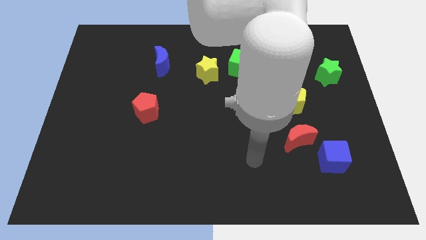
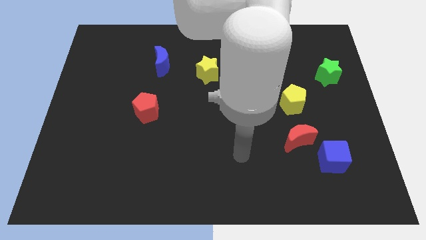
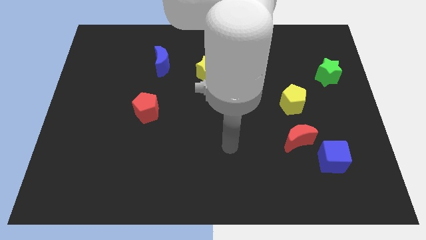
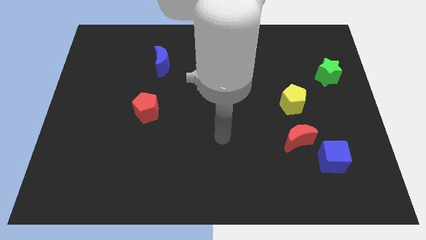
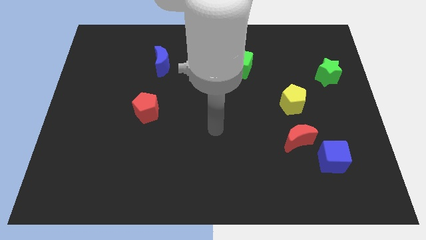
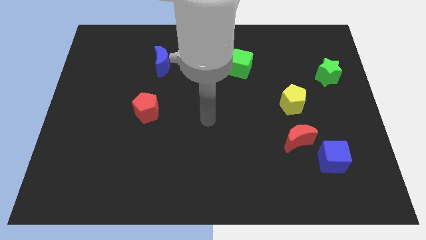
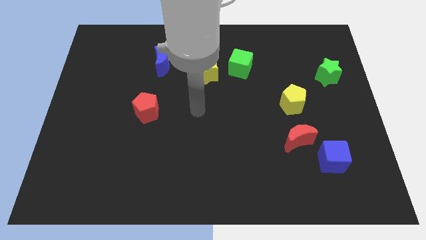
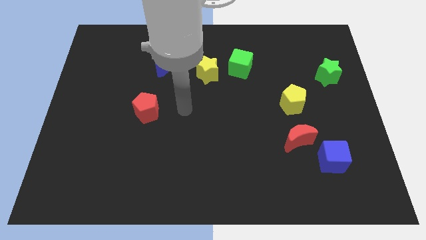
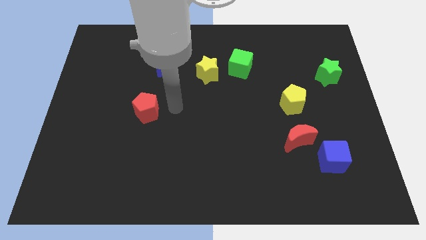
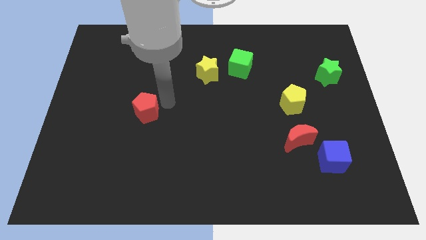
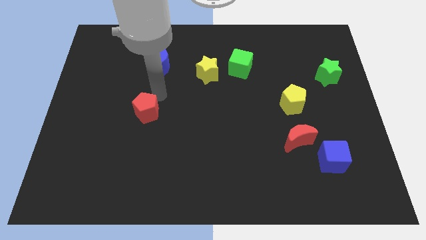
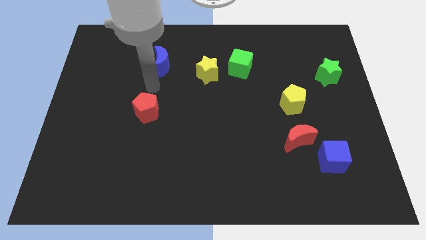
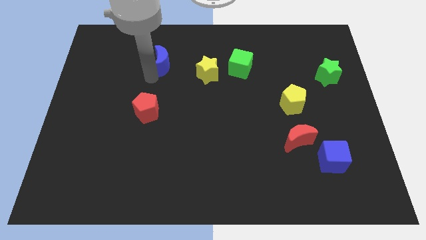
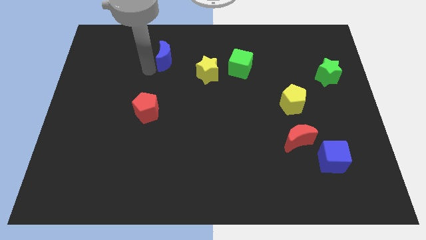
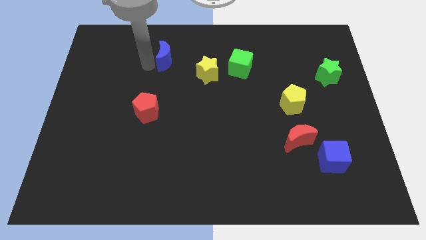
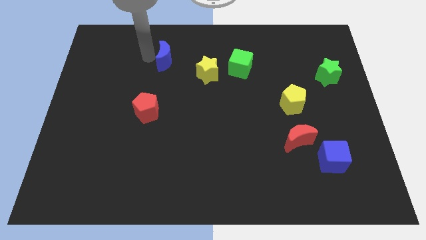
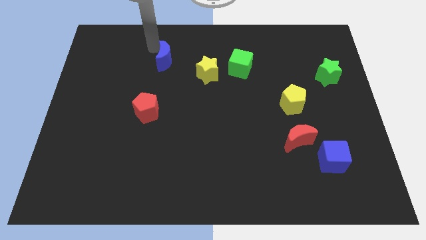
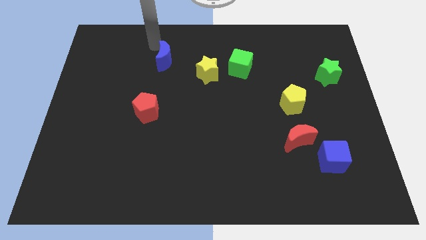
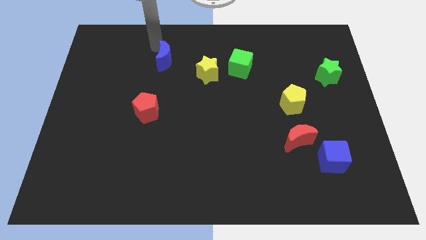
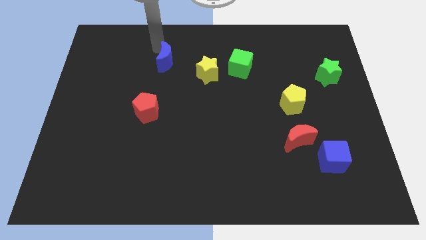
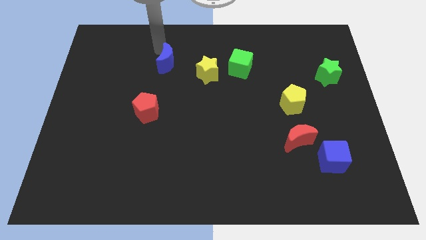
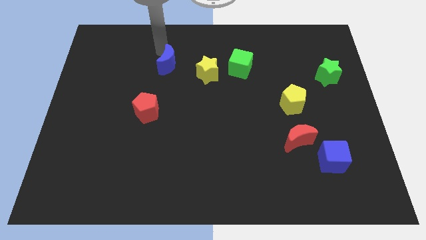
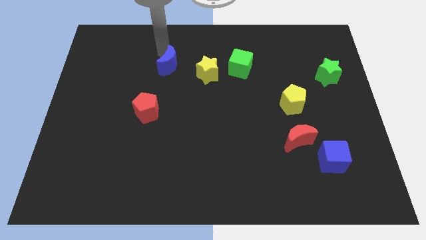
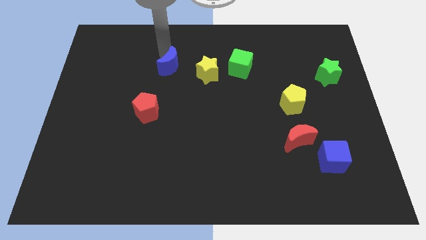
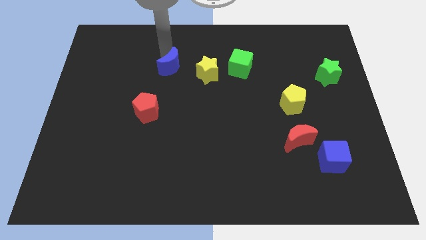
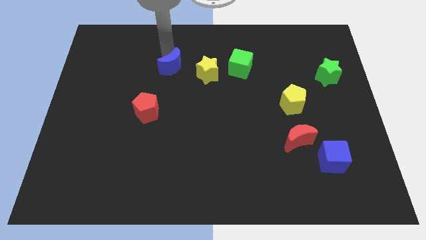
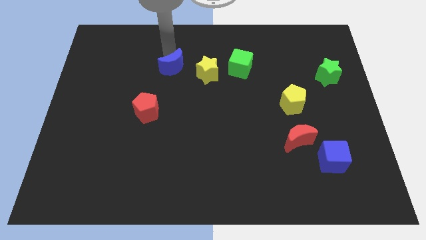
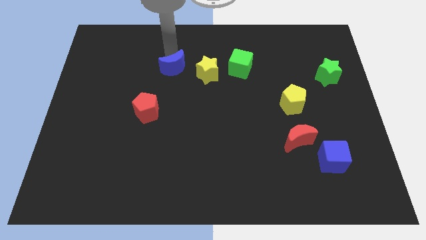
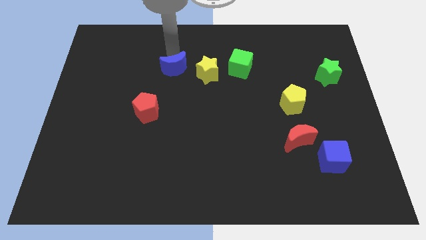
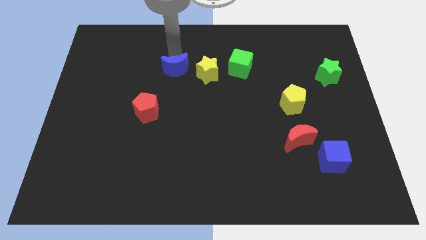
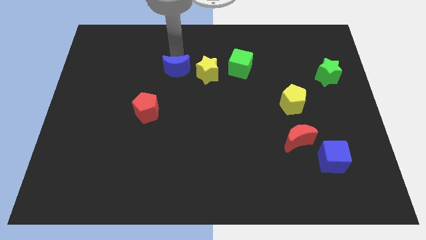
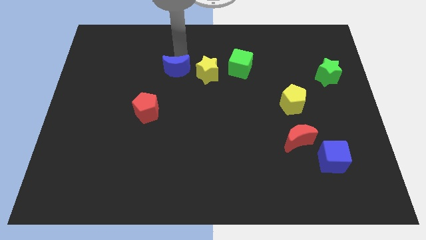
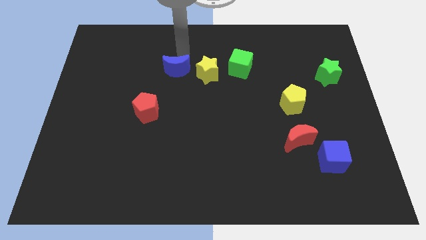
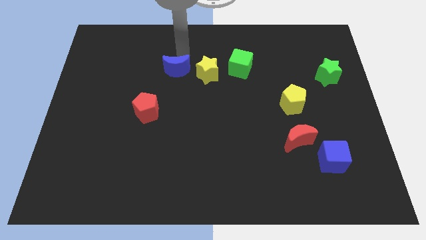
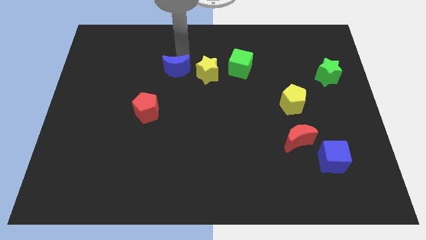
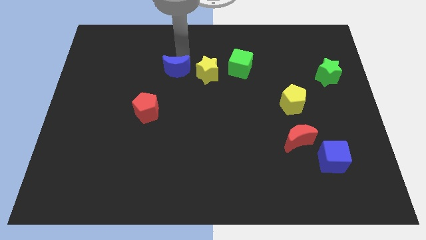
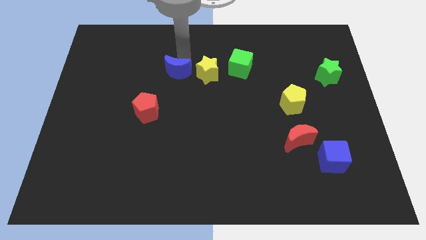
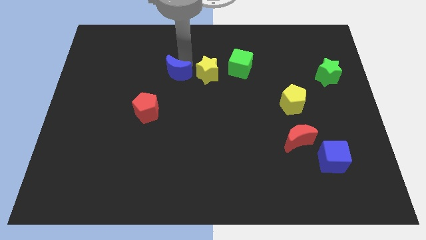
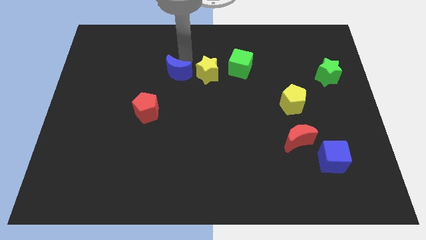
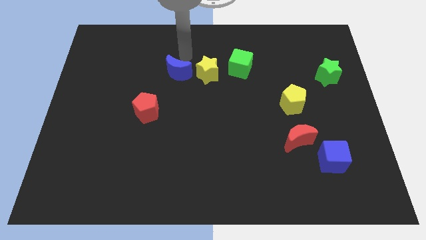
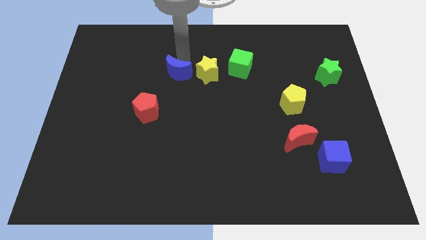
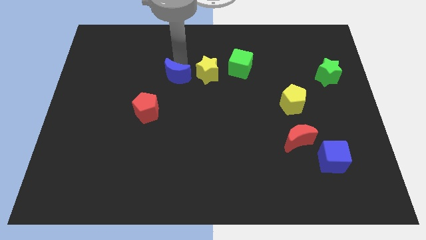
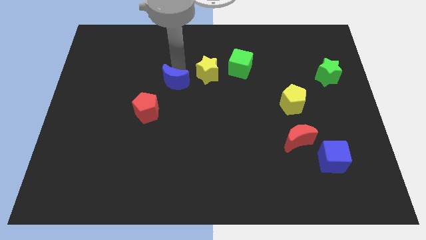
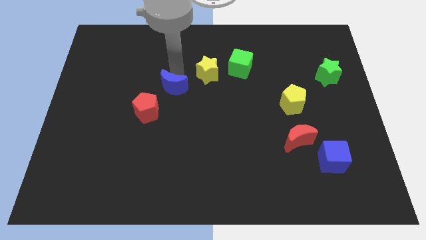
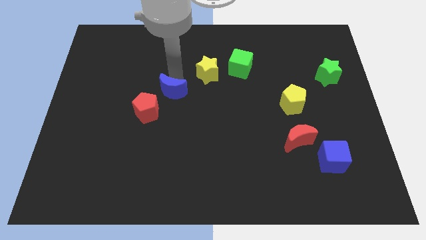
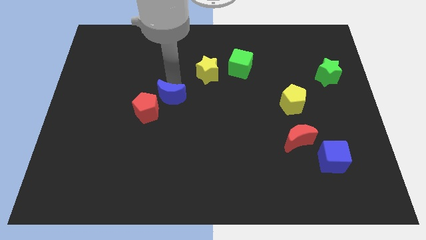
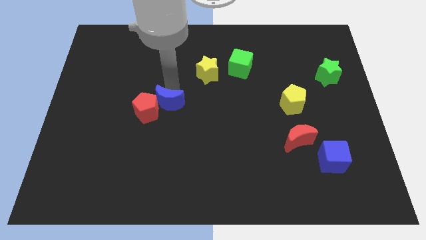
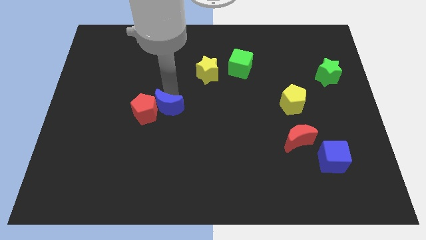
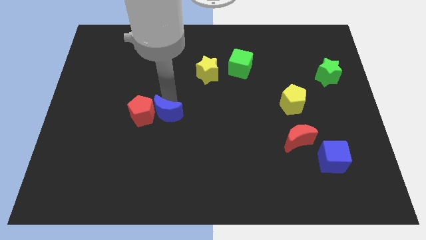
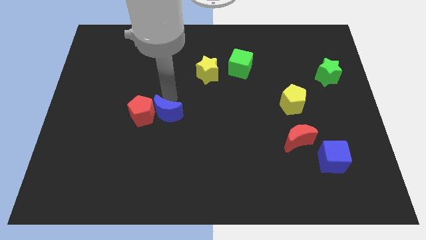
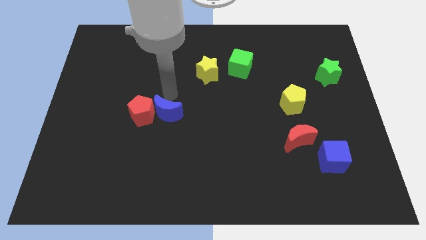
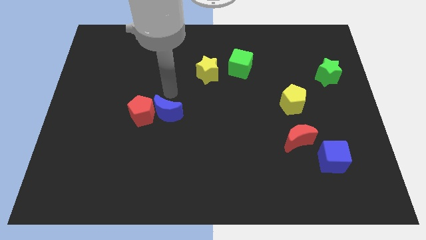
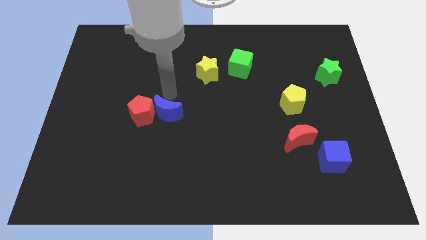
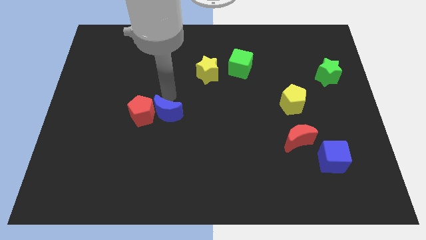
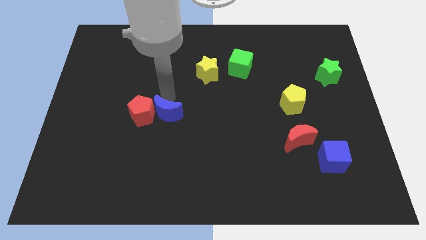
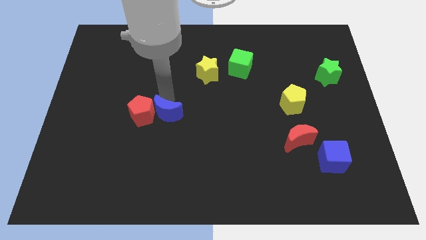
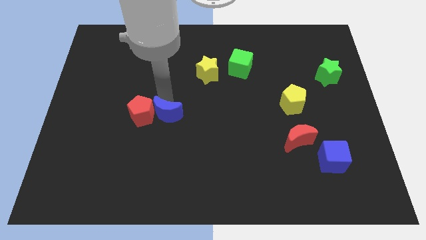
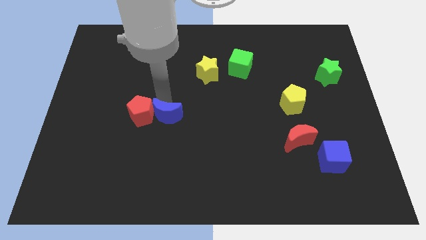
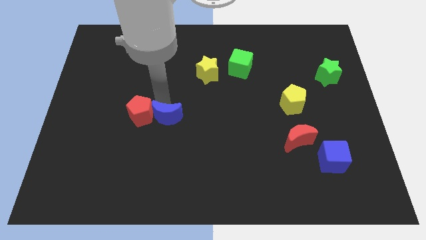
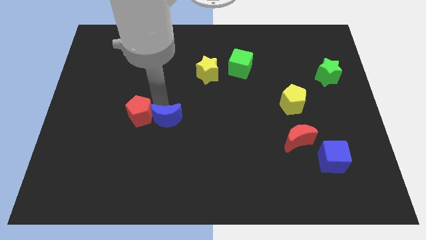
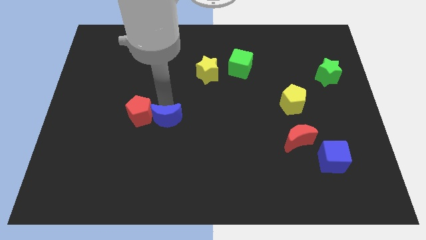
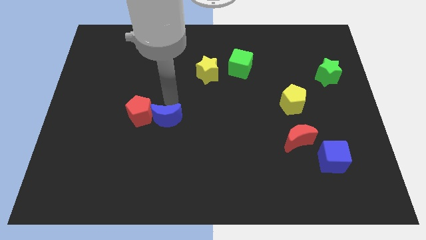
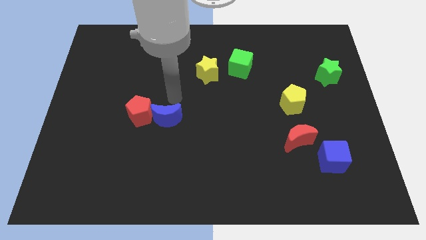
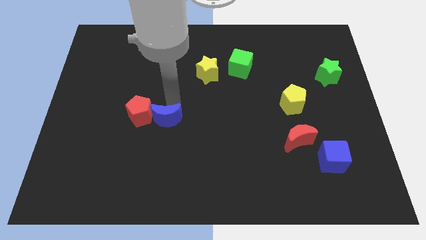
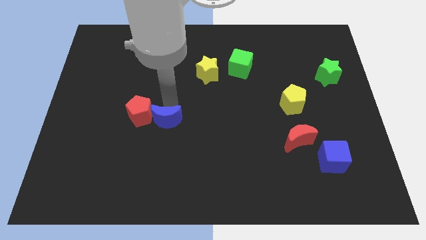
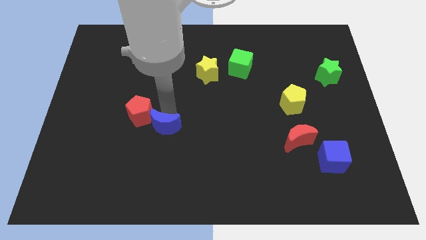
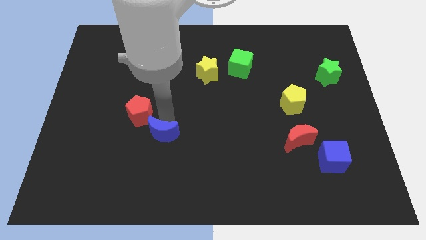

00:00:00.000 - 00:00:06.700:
push the blue moon downwards

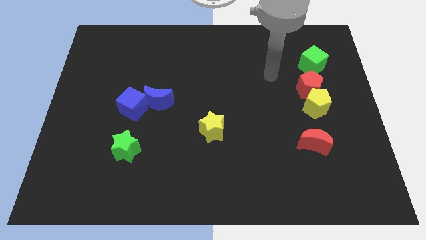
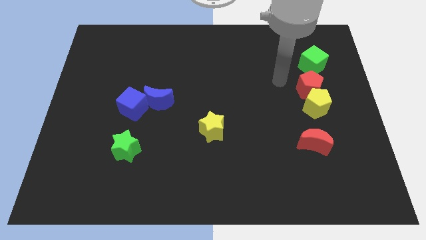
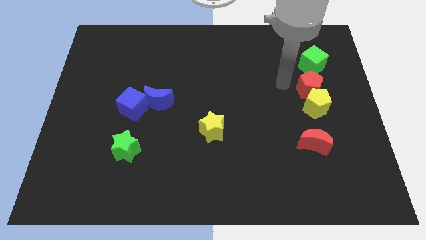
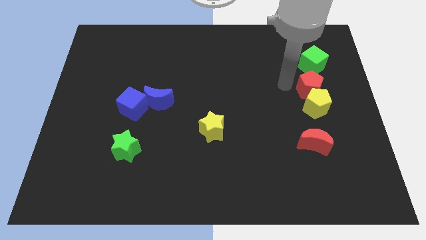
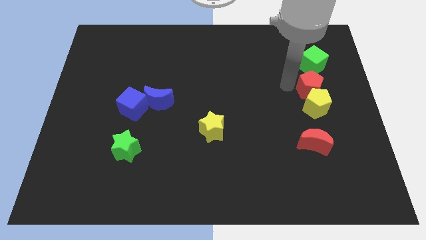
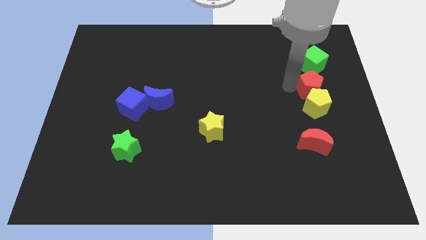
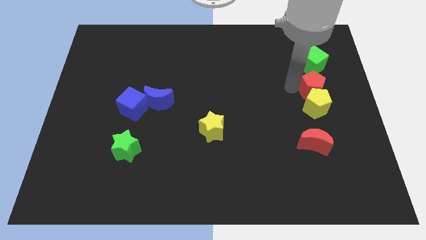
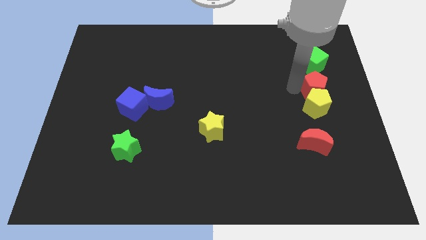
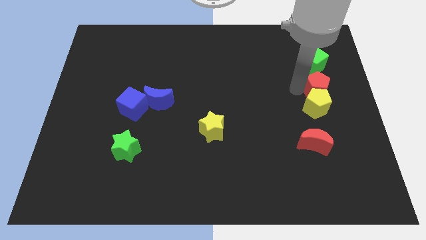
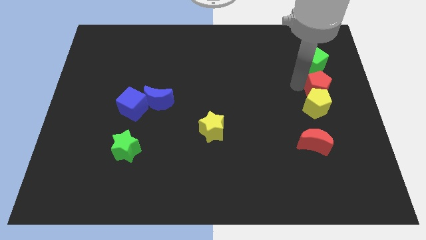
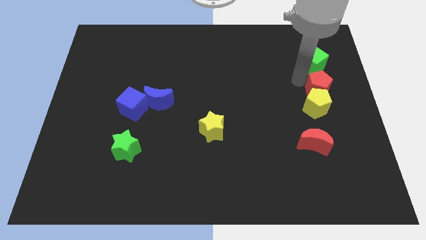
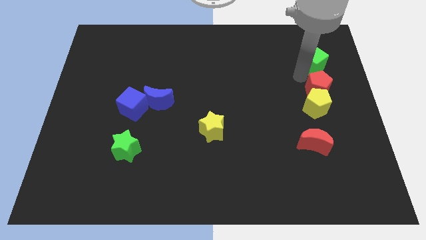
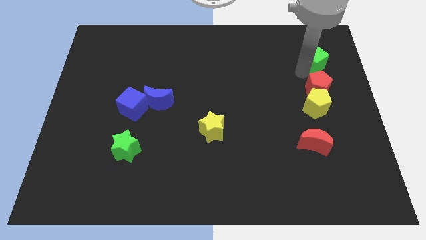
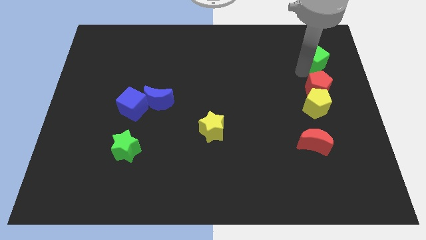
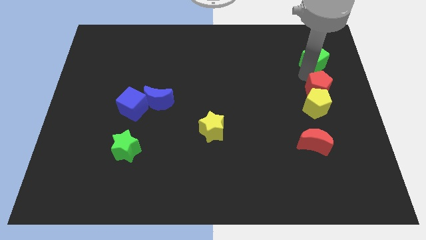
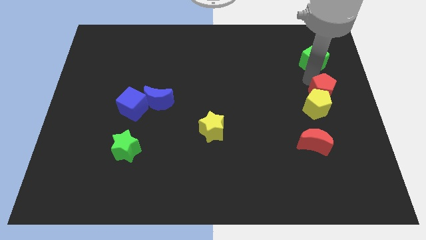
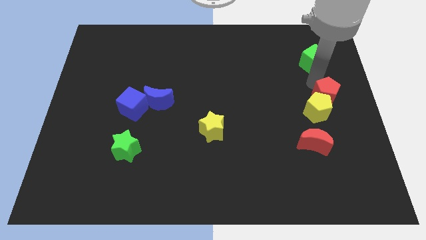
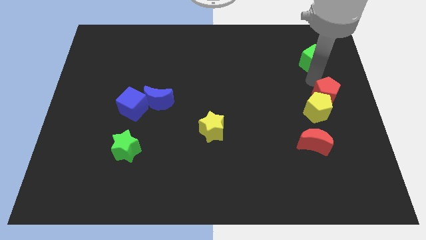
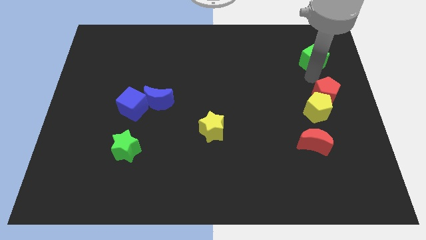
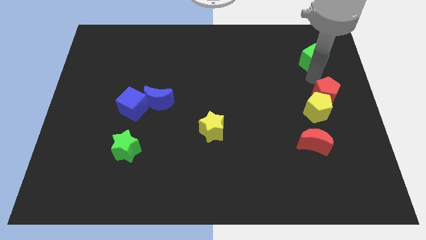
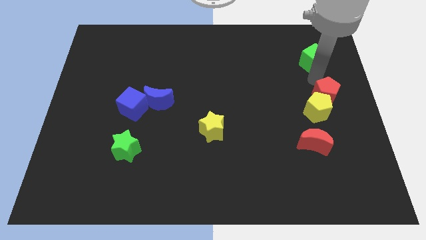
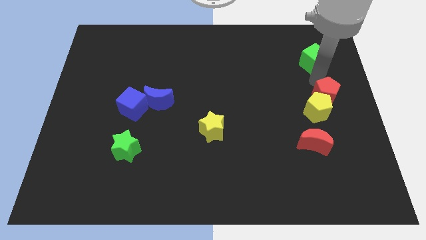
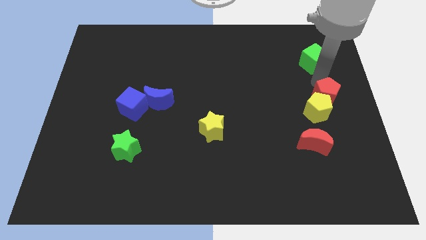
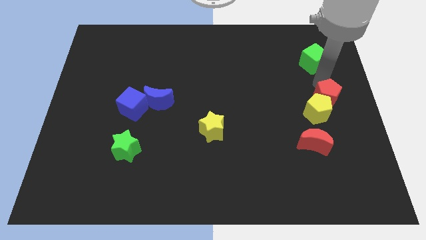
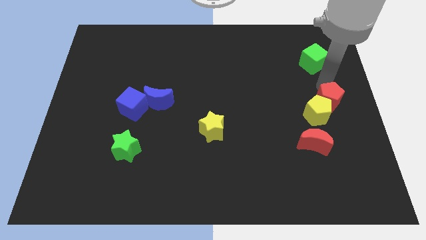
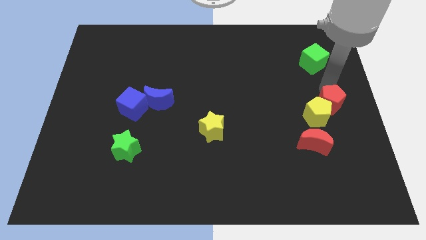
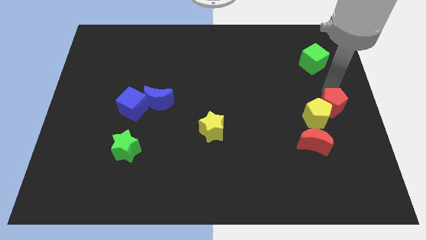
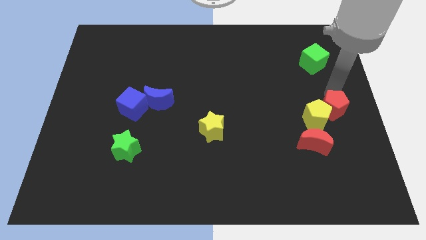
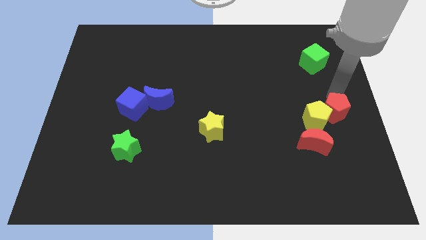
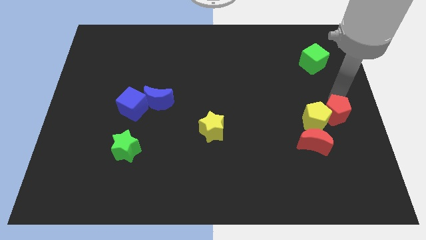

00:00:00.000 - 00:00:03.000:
slightly move the red pentagon downwards
